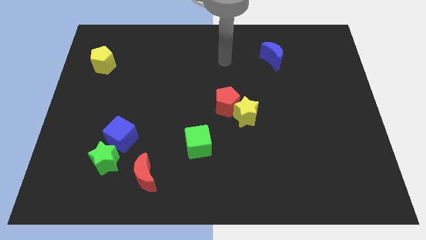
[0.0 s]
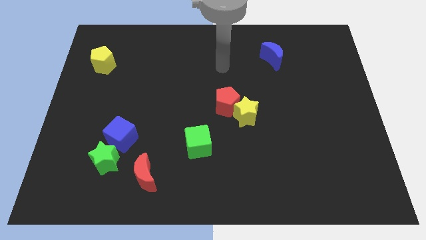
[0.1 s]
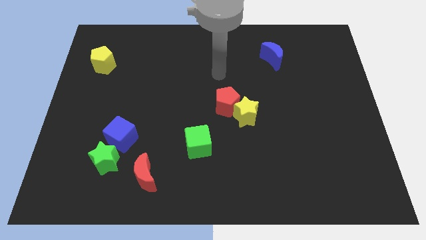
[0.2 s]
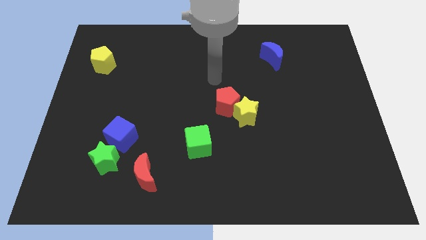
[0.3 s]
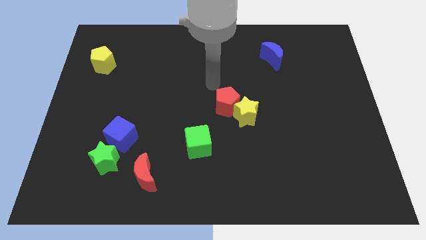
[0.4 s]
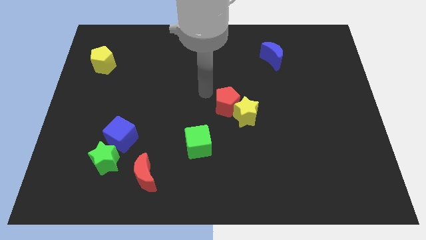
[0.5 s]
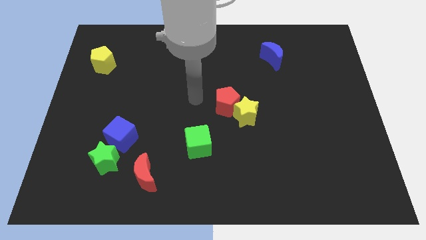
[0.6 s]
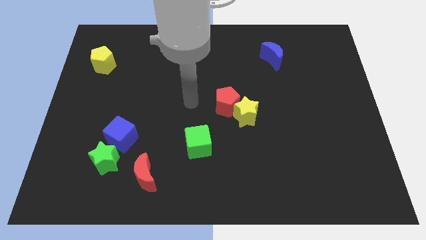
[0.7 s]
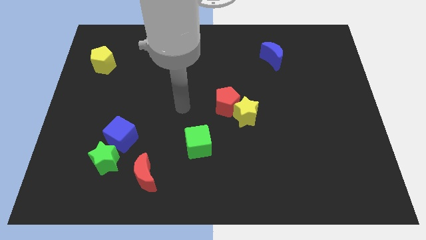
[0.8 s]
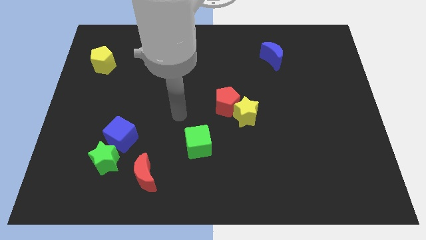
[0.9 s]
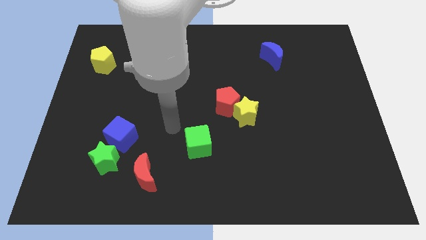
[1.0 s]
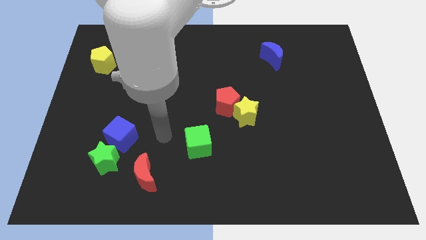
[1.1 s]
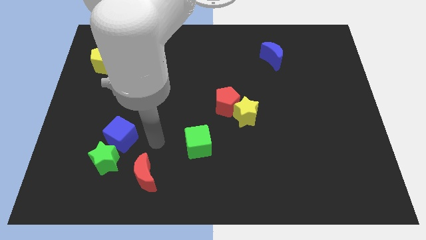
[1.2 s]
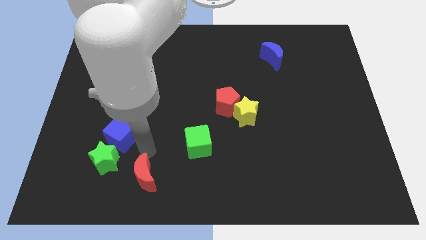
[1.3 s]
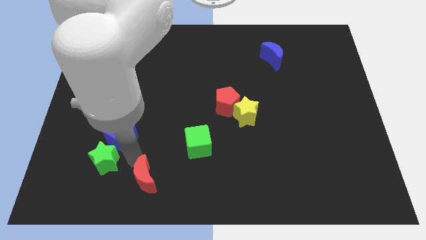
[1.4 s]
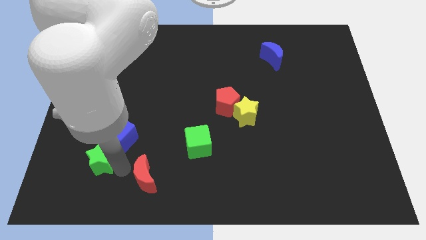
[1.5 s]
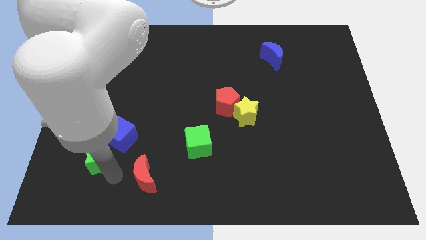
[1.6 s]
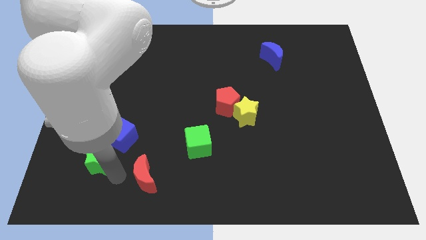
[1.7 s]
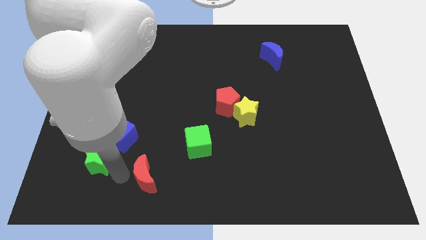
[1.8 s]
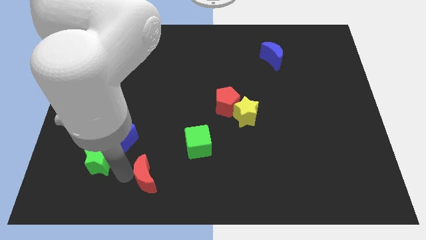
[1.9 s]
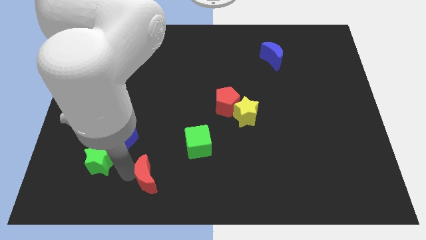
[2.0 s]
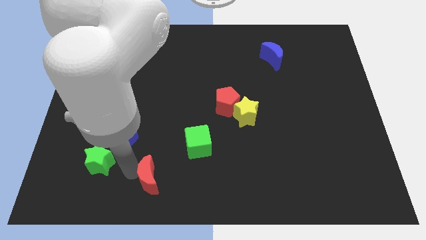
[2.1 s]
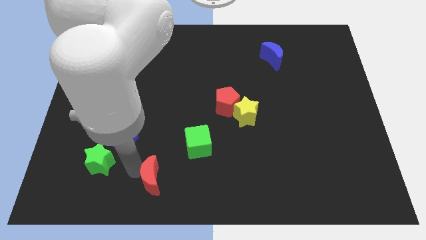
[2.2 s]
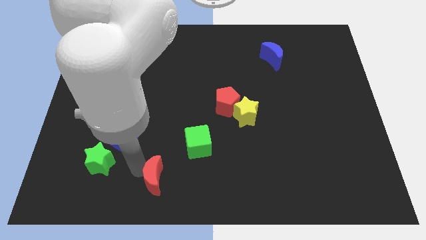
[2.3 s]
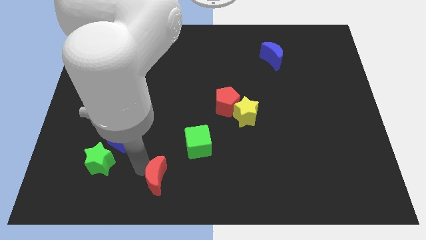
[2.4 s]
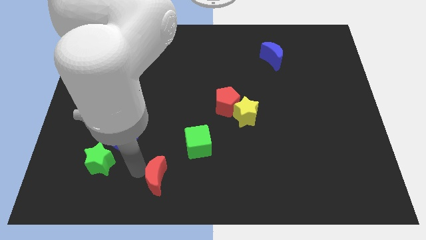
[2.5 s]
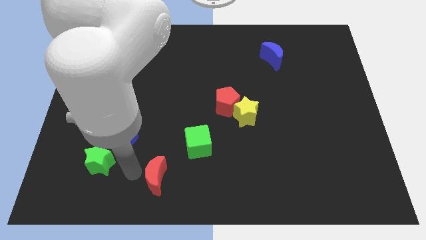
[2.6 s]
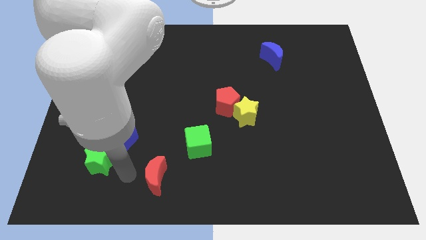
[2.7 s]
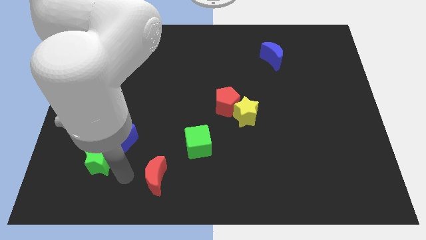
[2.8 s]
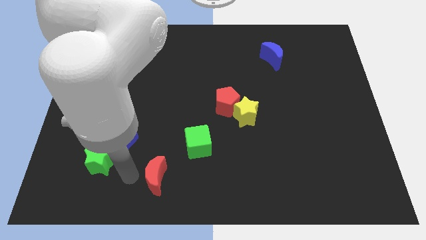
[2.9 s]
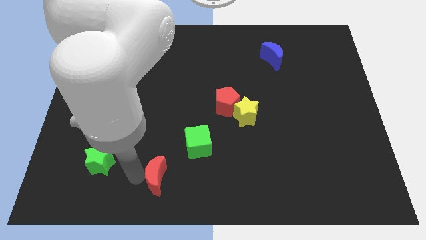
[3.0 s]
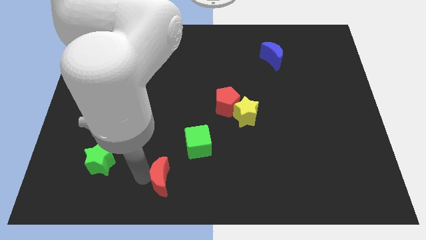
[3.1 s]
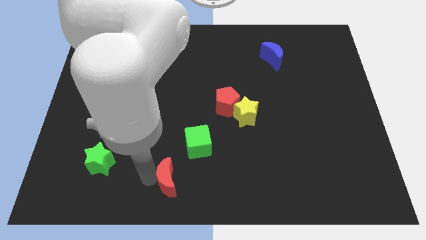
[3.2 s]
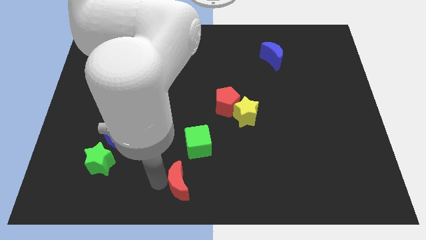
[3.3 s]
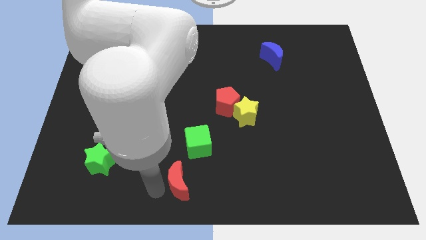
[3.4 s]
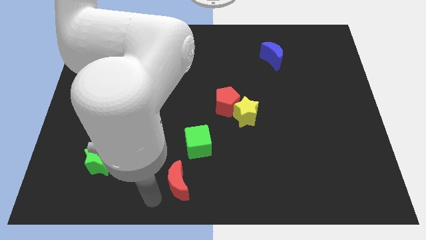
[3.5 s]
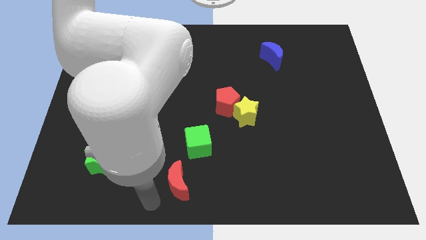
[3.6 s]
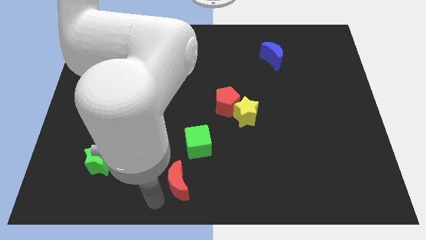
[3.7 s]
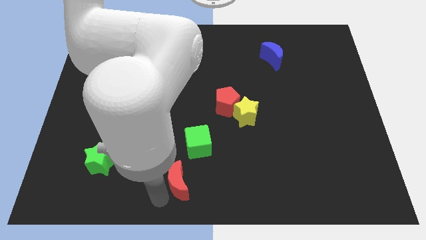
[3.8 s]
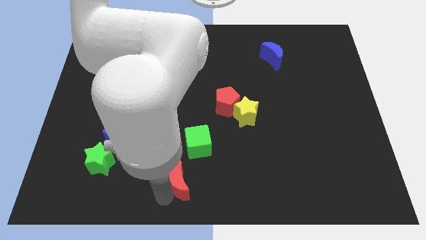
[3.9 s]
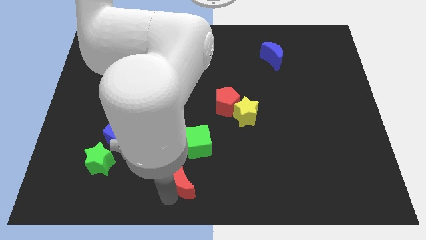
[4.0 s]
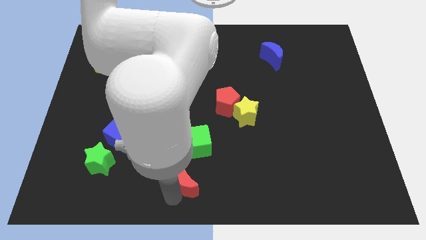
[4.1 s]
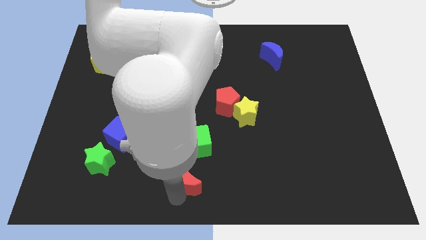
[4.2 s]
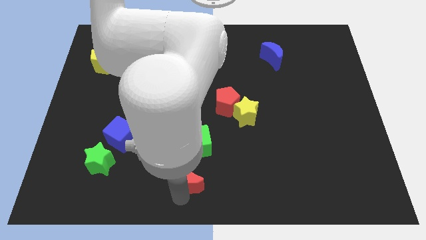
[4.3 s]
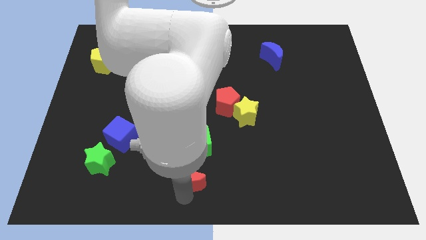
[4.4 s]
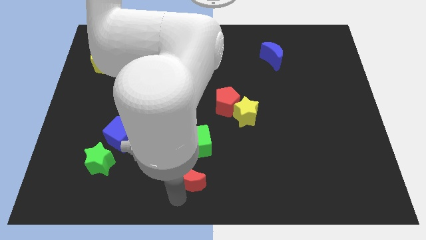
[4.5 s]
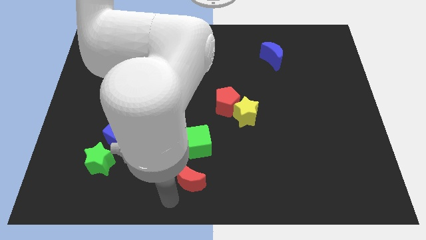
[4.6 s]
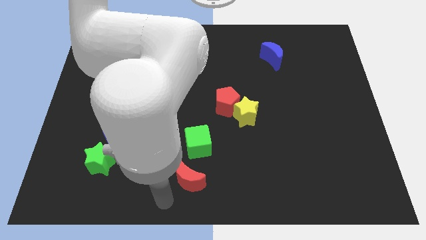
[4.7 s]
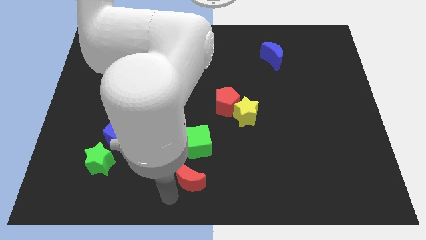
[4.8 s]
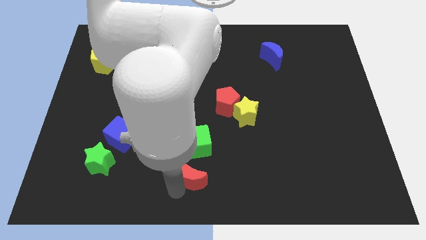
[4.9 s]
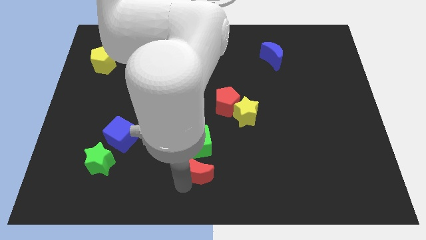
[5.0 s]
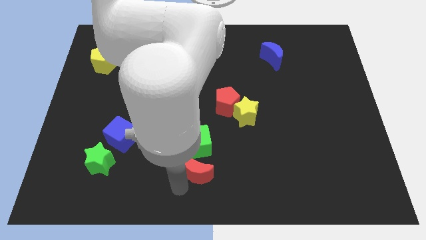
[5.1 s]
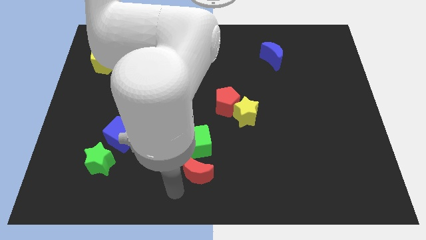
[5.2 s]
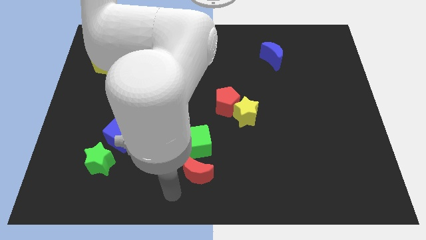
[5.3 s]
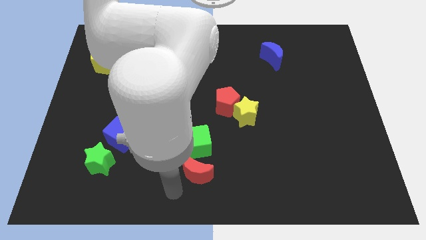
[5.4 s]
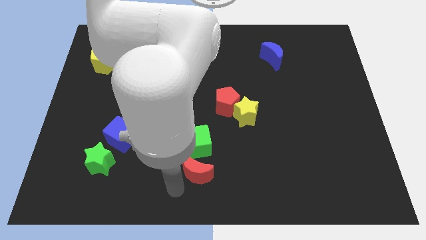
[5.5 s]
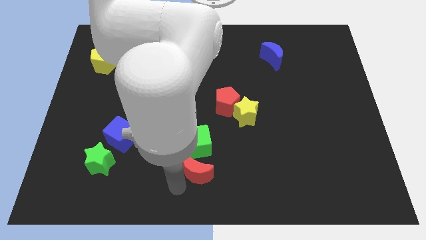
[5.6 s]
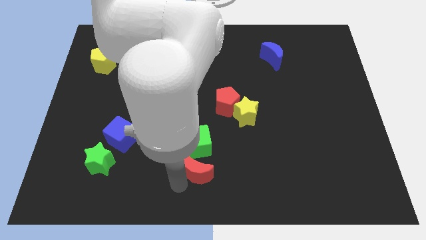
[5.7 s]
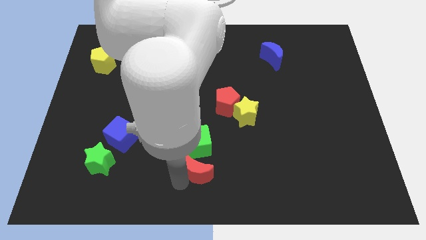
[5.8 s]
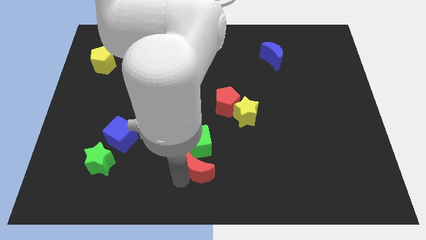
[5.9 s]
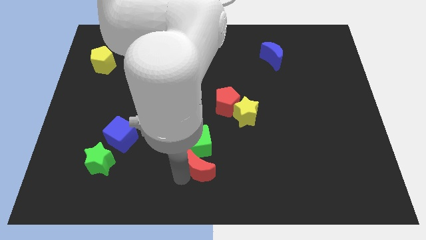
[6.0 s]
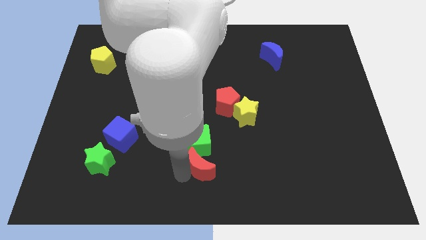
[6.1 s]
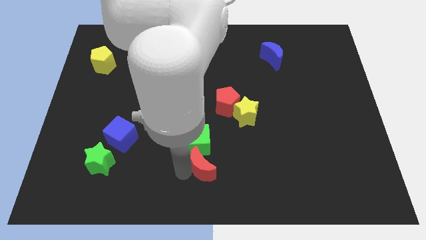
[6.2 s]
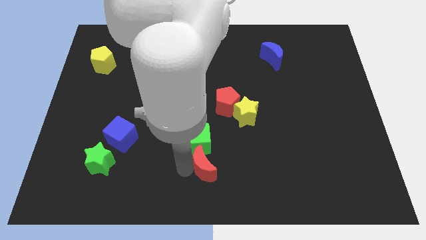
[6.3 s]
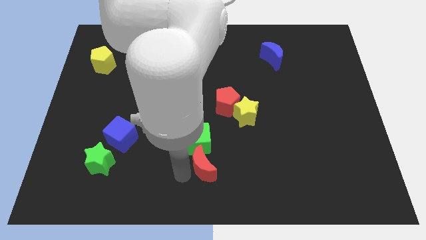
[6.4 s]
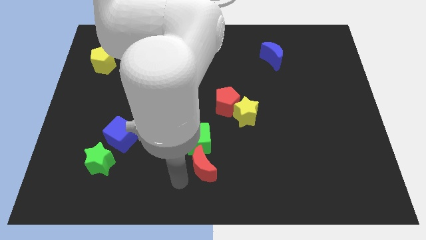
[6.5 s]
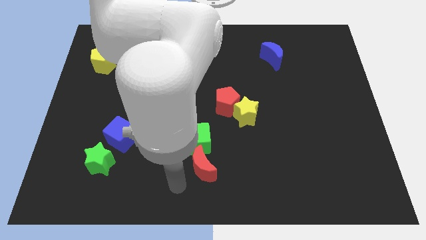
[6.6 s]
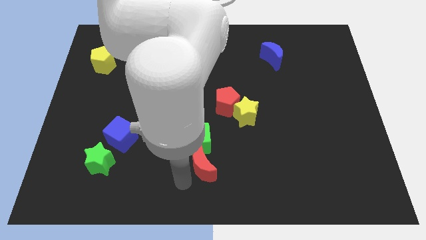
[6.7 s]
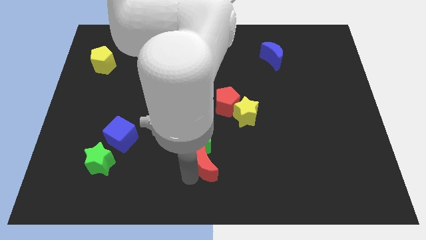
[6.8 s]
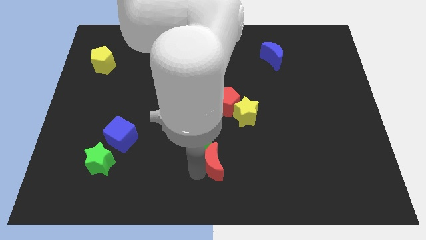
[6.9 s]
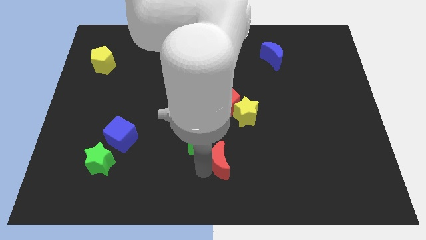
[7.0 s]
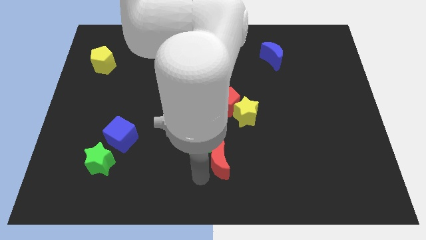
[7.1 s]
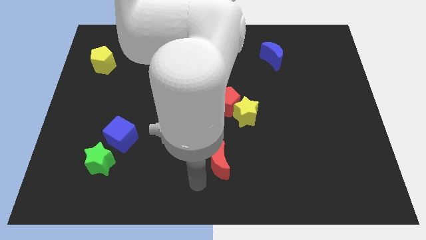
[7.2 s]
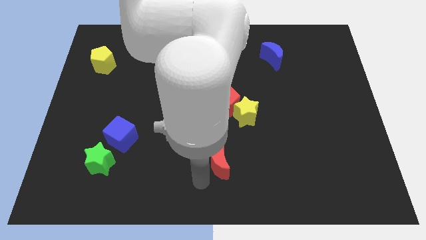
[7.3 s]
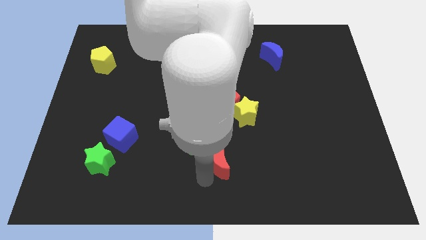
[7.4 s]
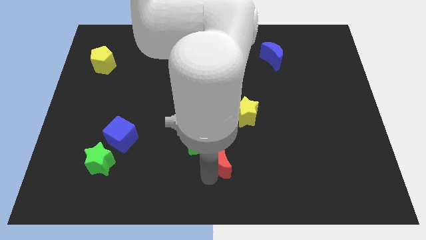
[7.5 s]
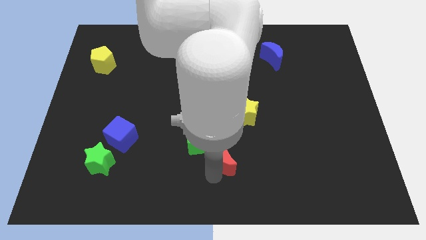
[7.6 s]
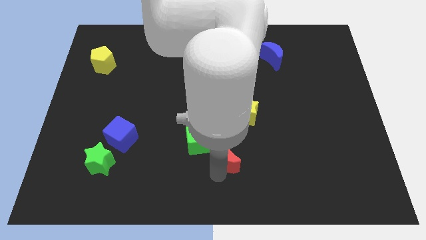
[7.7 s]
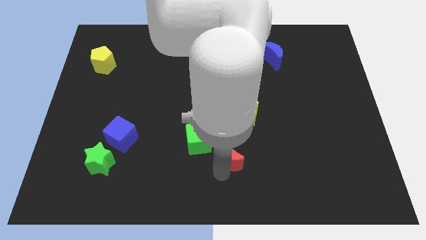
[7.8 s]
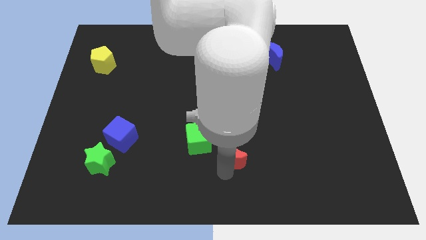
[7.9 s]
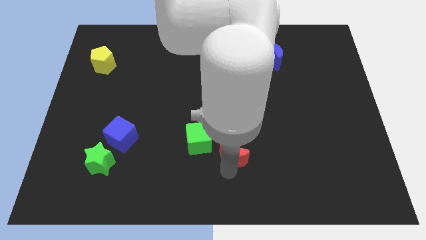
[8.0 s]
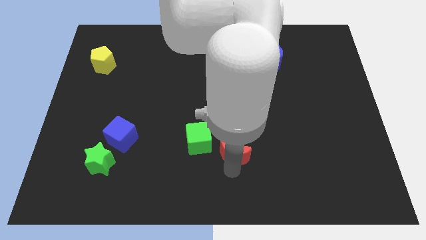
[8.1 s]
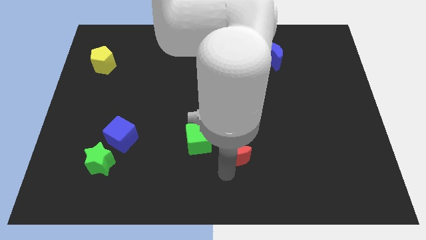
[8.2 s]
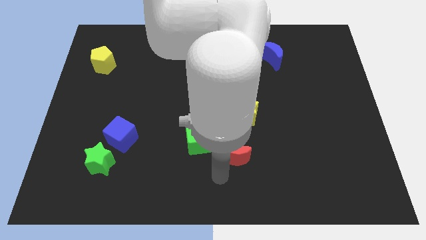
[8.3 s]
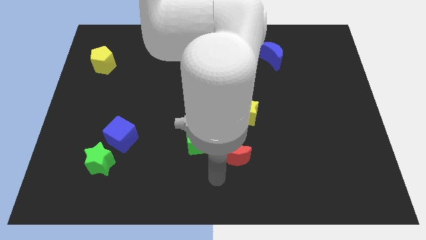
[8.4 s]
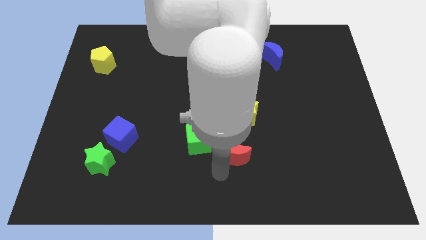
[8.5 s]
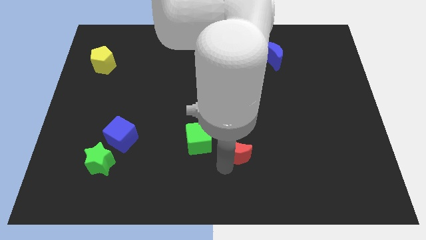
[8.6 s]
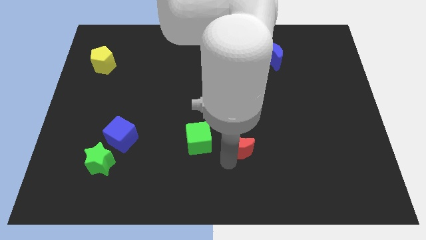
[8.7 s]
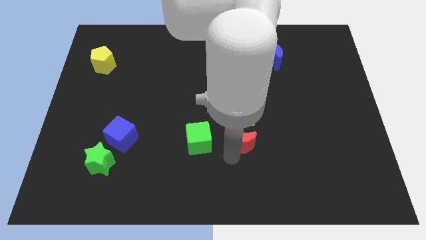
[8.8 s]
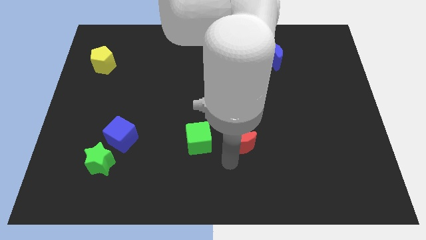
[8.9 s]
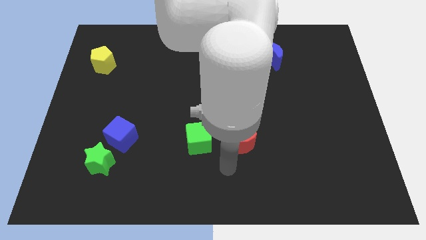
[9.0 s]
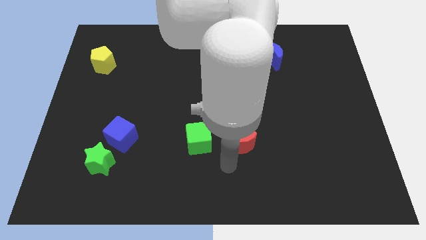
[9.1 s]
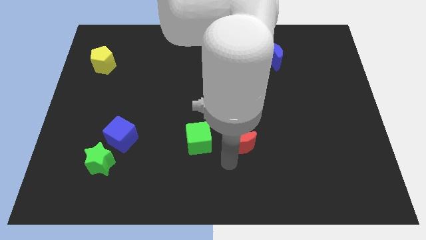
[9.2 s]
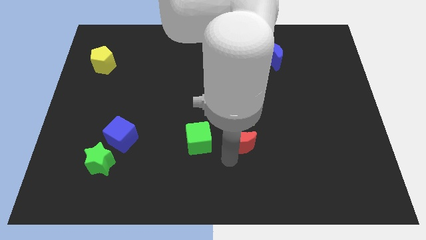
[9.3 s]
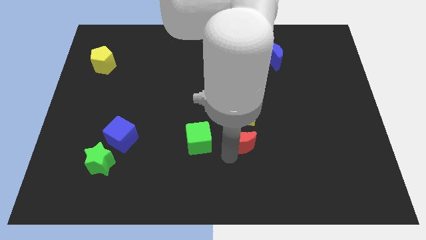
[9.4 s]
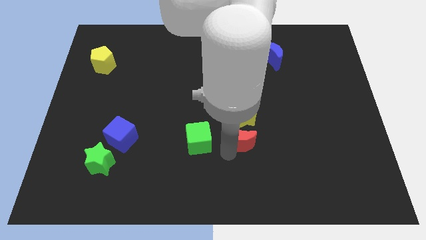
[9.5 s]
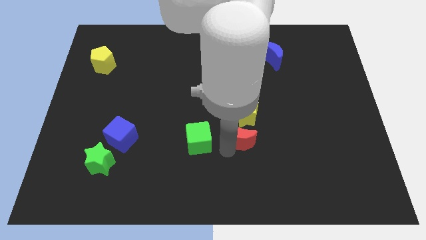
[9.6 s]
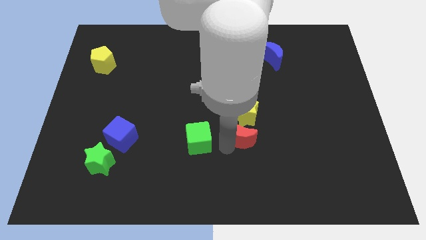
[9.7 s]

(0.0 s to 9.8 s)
slide the red moon to the bottom right side of the red pentagon
